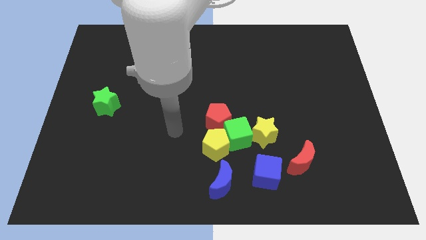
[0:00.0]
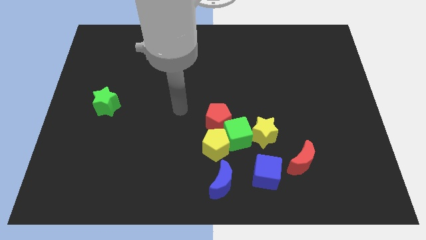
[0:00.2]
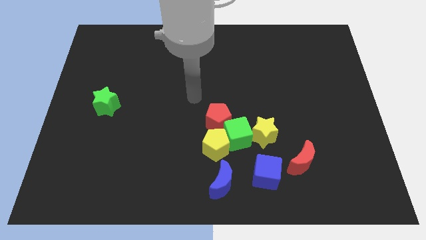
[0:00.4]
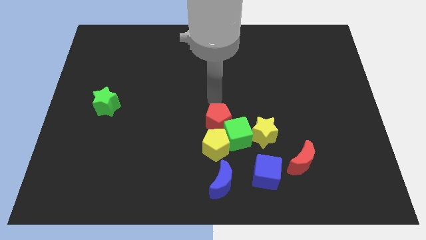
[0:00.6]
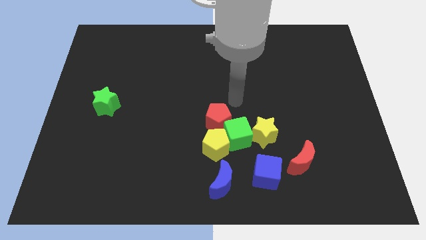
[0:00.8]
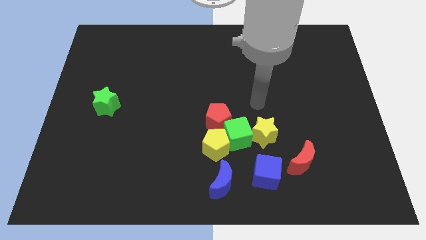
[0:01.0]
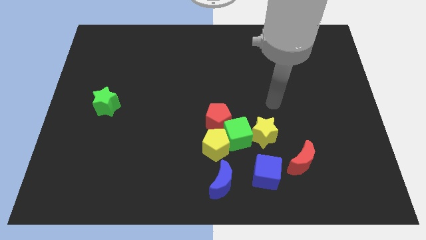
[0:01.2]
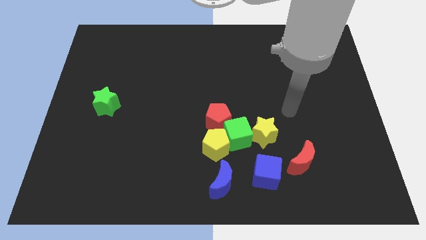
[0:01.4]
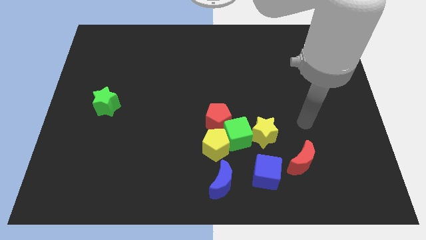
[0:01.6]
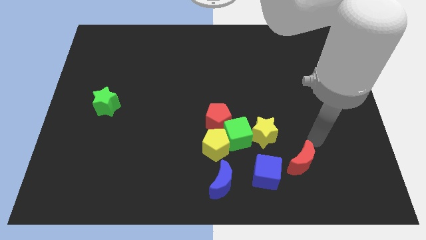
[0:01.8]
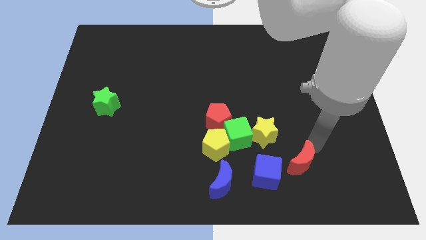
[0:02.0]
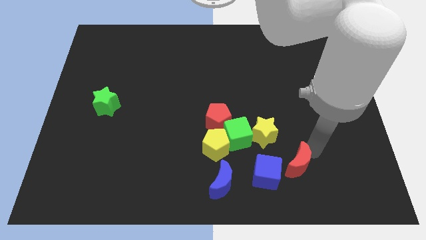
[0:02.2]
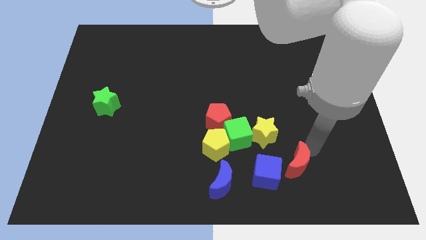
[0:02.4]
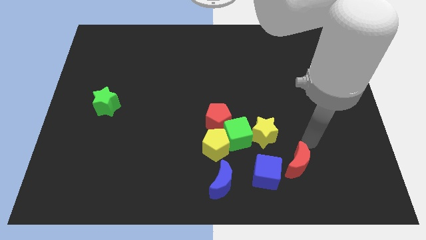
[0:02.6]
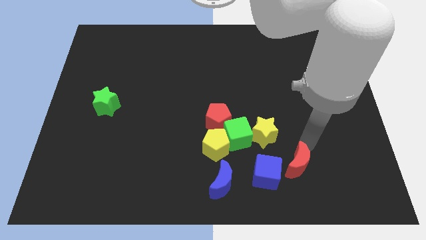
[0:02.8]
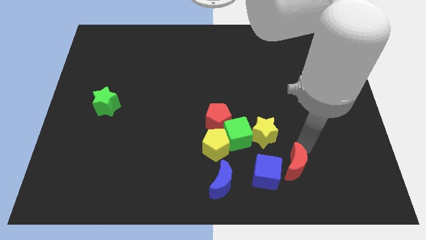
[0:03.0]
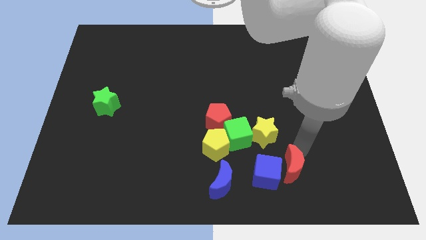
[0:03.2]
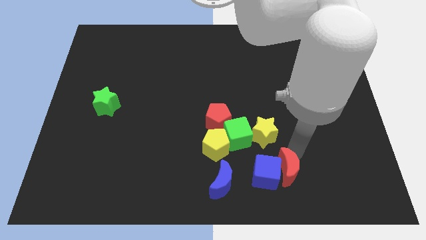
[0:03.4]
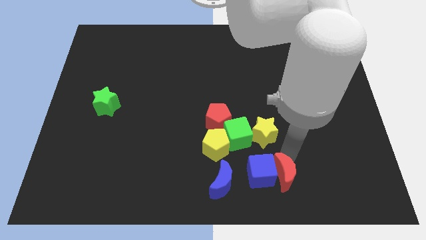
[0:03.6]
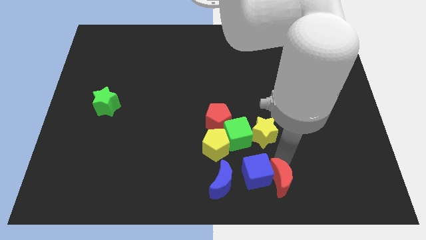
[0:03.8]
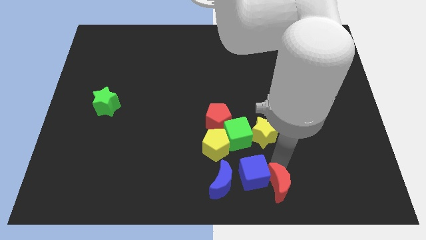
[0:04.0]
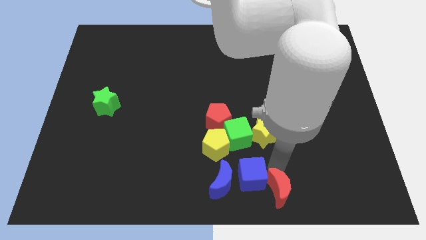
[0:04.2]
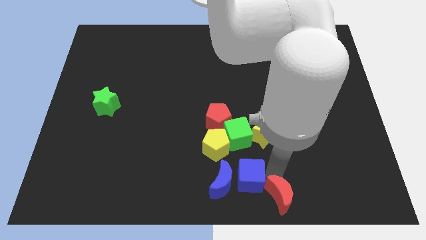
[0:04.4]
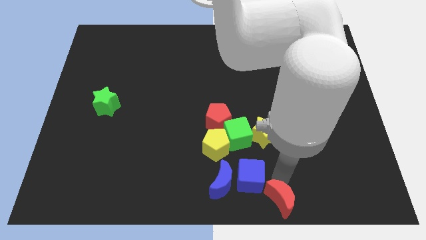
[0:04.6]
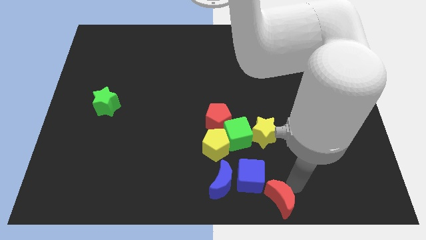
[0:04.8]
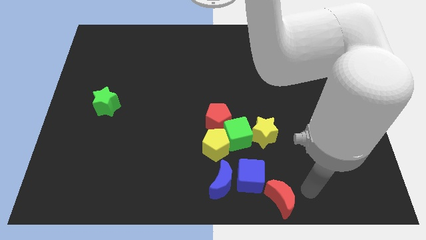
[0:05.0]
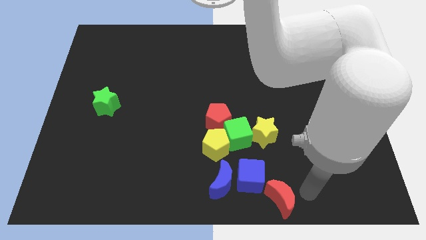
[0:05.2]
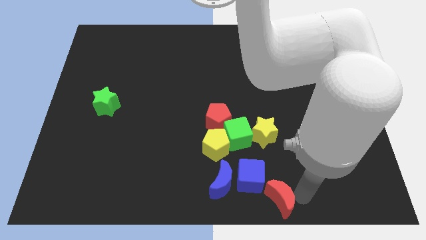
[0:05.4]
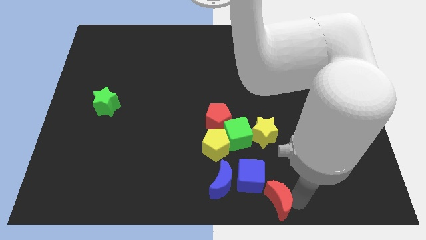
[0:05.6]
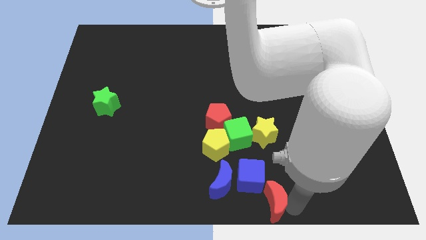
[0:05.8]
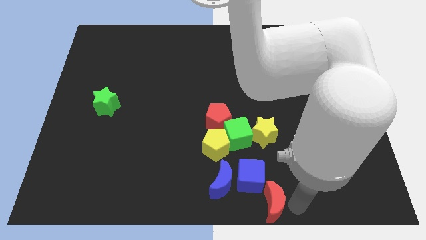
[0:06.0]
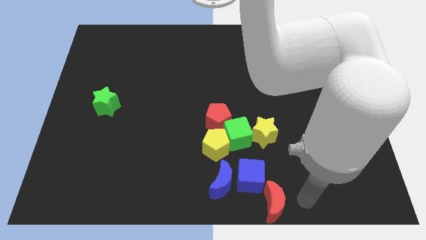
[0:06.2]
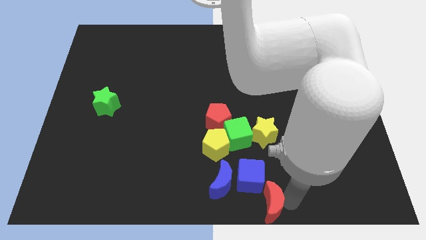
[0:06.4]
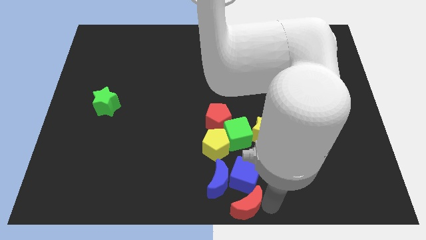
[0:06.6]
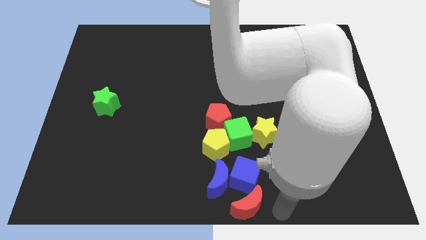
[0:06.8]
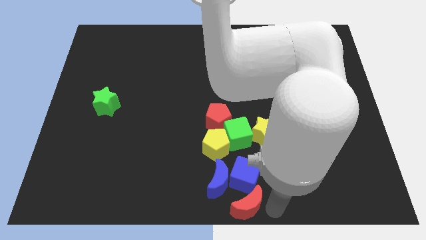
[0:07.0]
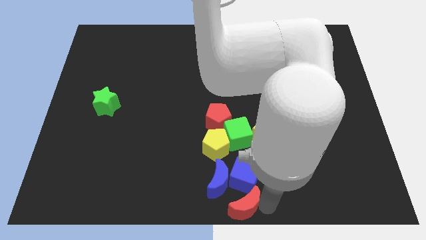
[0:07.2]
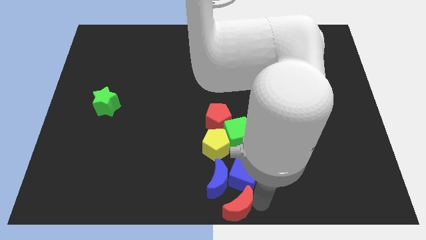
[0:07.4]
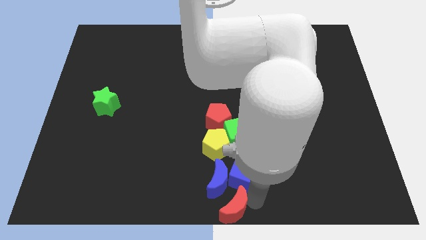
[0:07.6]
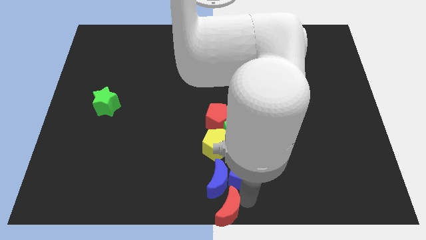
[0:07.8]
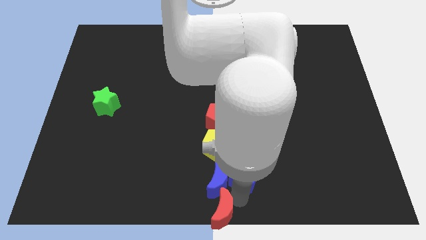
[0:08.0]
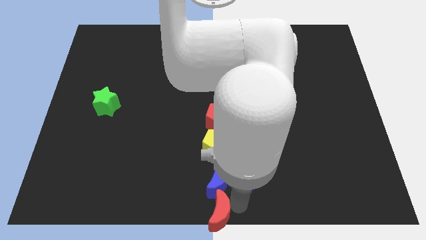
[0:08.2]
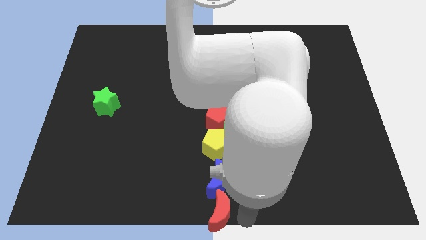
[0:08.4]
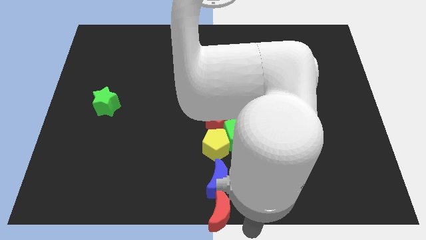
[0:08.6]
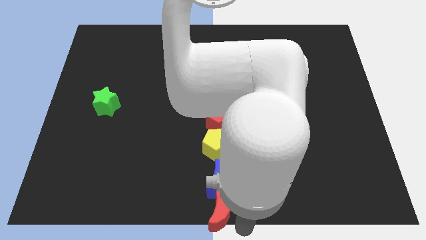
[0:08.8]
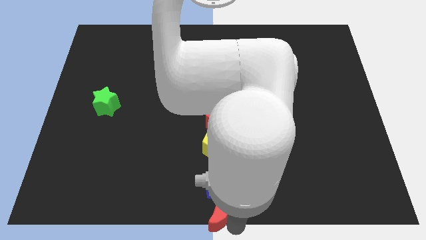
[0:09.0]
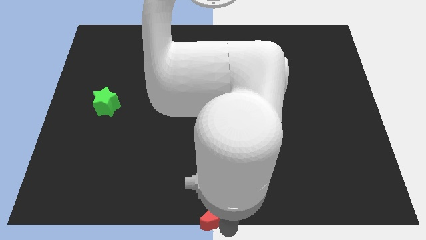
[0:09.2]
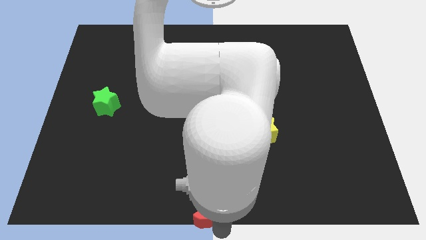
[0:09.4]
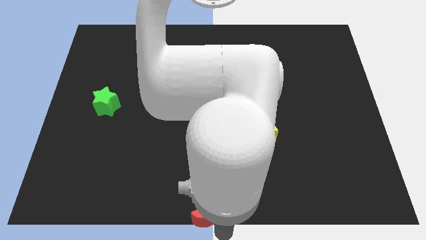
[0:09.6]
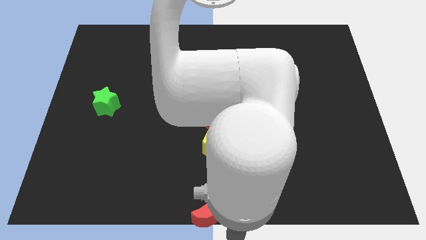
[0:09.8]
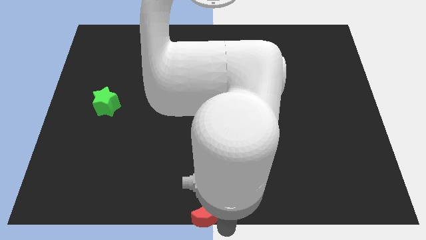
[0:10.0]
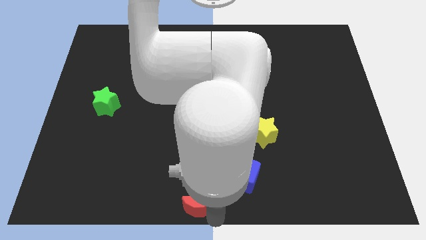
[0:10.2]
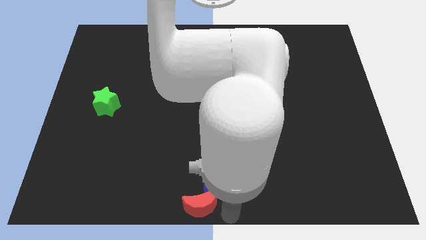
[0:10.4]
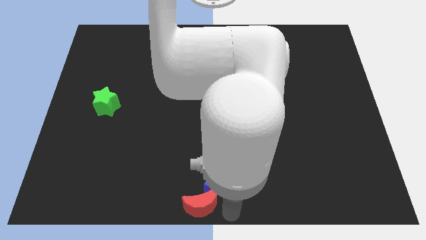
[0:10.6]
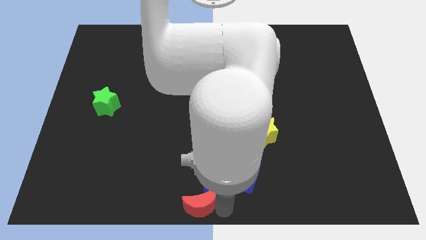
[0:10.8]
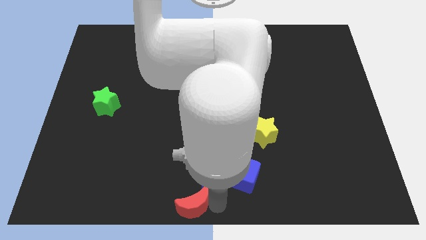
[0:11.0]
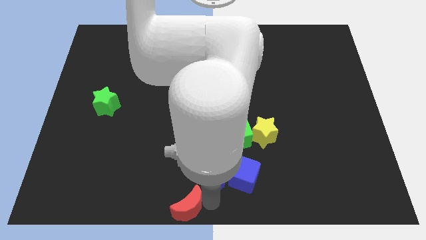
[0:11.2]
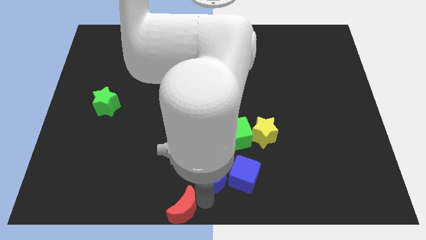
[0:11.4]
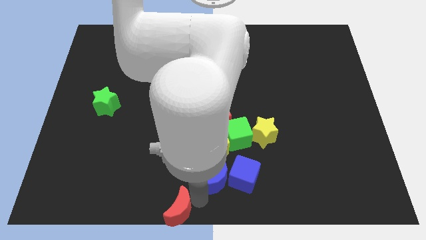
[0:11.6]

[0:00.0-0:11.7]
slide the red moon to the left

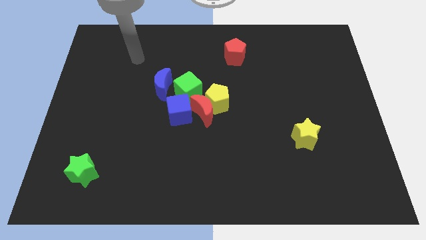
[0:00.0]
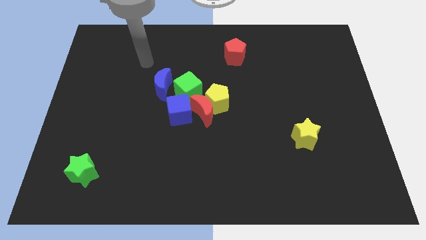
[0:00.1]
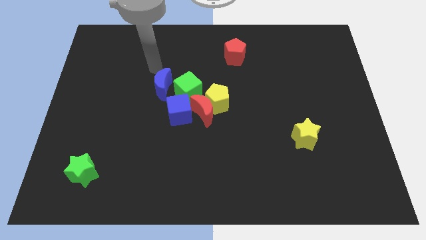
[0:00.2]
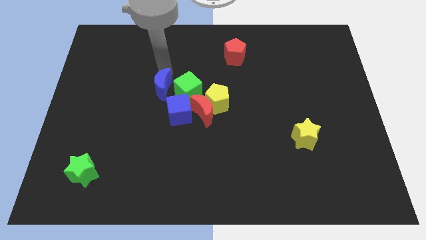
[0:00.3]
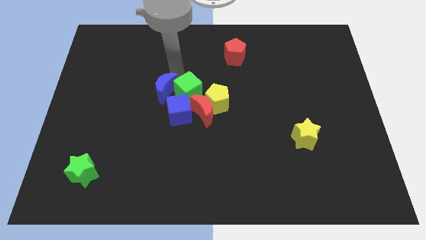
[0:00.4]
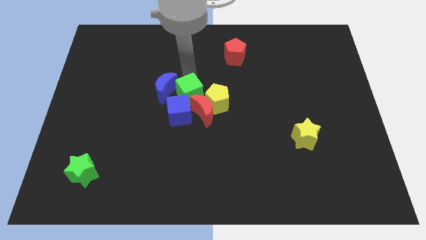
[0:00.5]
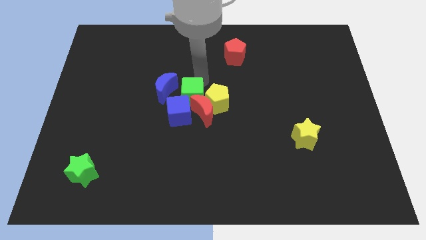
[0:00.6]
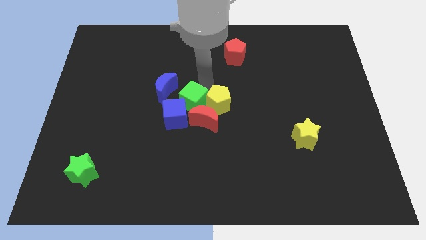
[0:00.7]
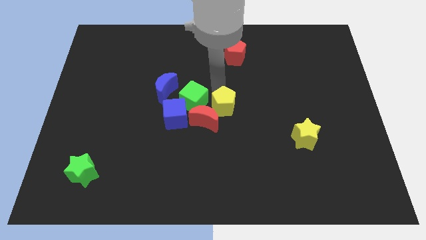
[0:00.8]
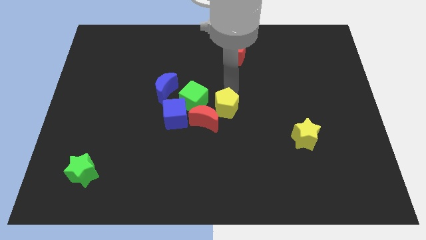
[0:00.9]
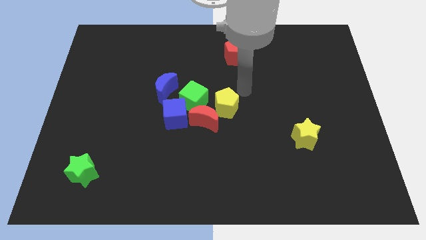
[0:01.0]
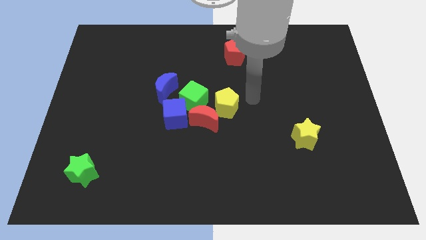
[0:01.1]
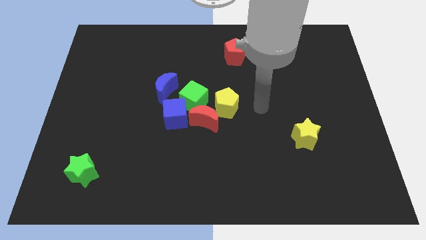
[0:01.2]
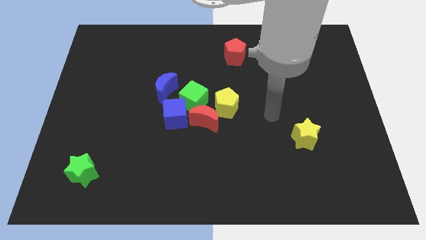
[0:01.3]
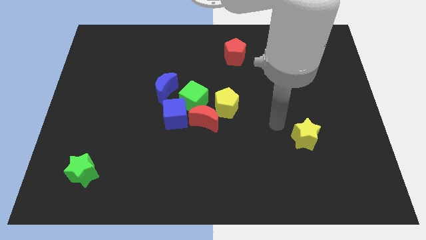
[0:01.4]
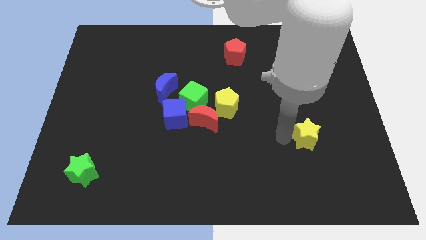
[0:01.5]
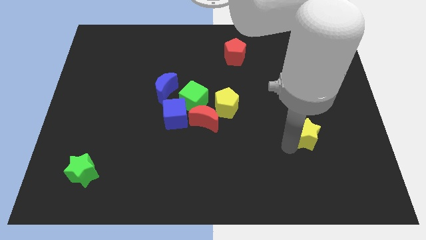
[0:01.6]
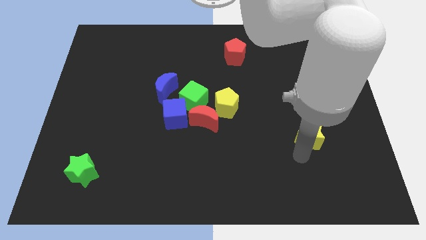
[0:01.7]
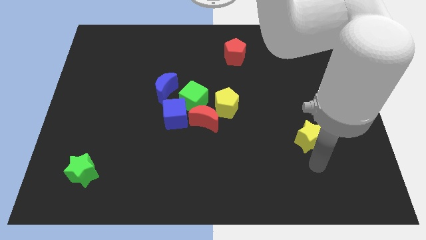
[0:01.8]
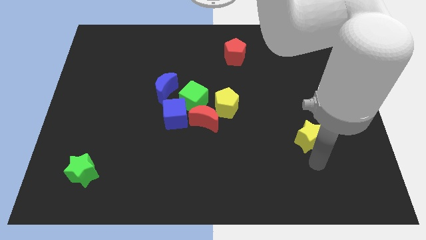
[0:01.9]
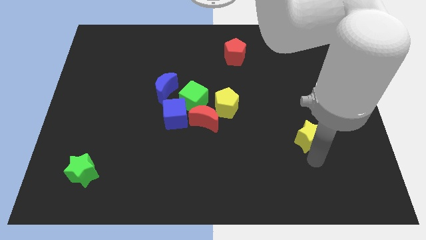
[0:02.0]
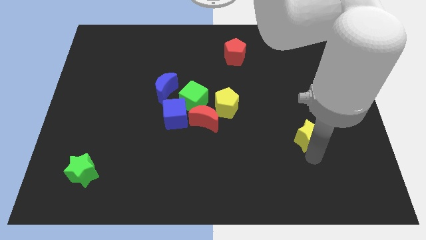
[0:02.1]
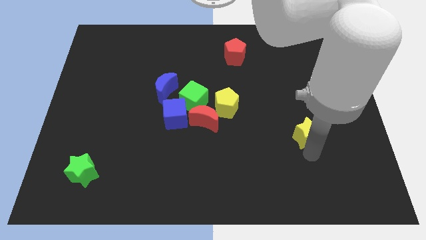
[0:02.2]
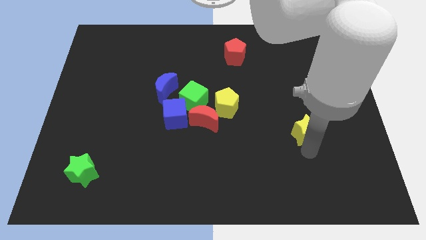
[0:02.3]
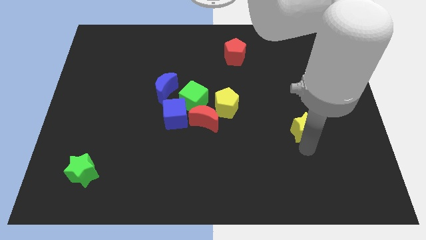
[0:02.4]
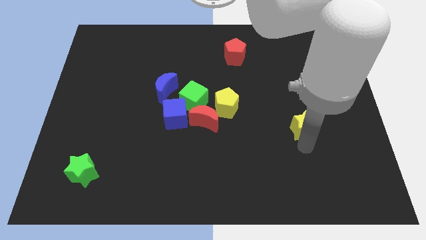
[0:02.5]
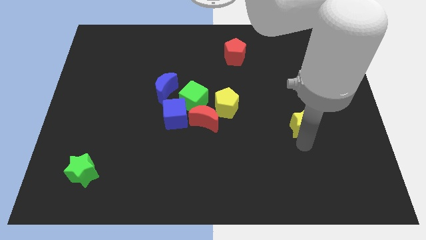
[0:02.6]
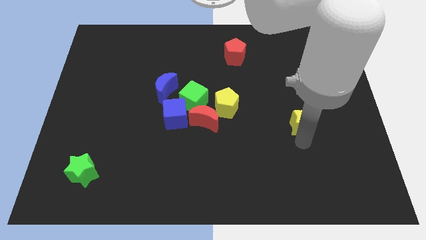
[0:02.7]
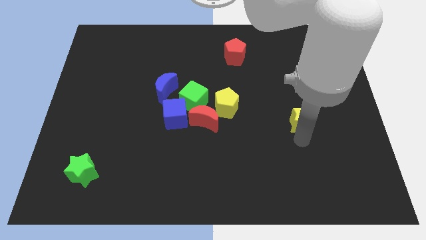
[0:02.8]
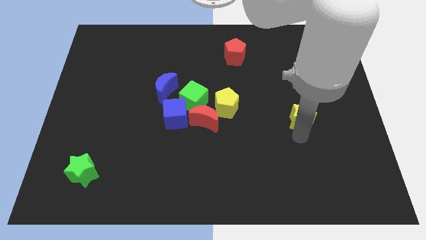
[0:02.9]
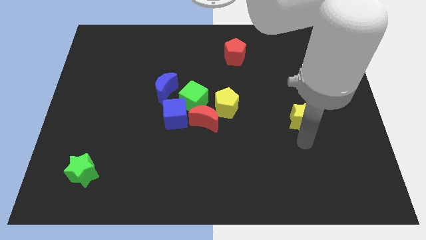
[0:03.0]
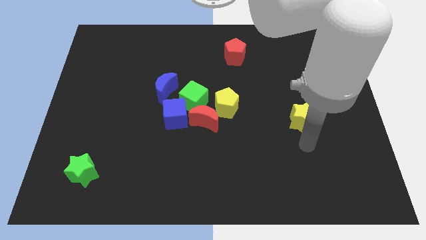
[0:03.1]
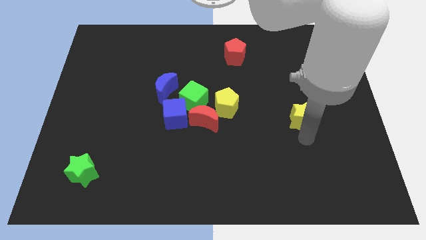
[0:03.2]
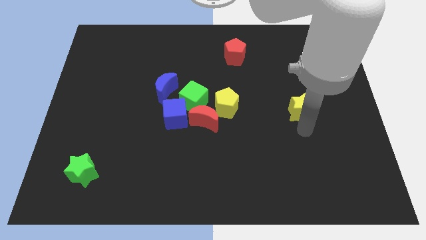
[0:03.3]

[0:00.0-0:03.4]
slide the yellow star up a little bit
